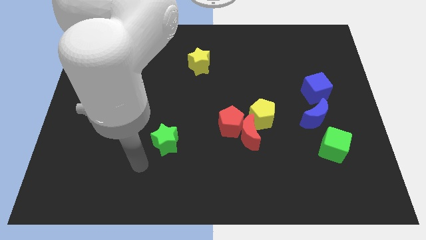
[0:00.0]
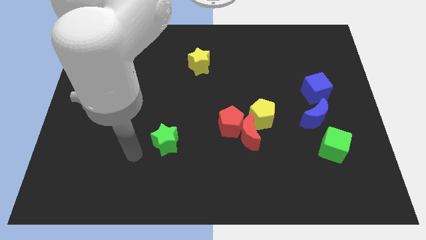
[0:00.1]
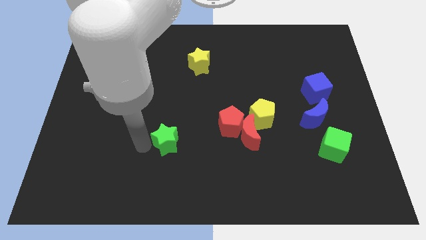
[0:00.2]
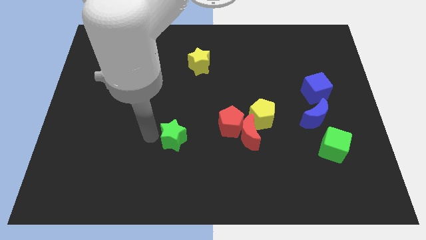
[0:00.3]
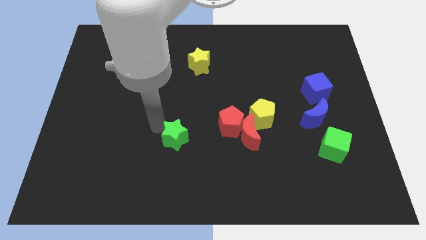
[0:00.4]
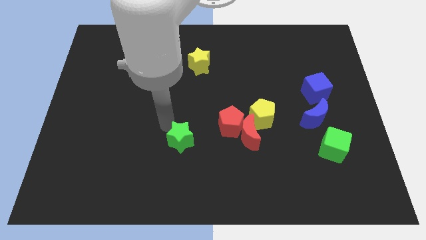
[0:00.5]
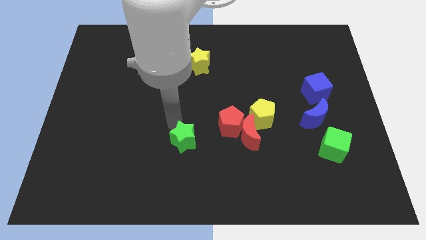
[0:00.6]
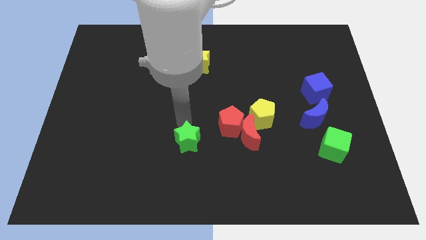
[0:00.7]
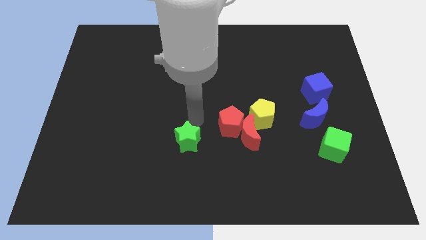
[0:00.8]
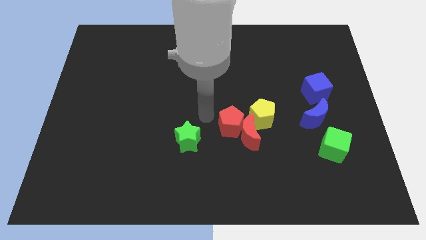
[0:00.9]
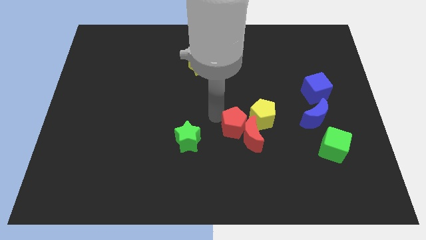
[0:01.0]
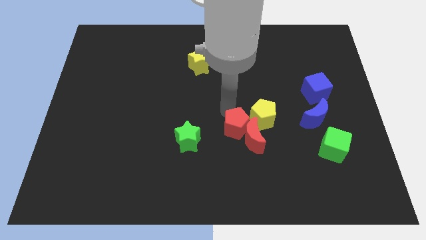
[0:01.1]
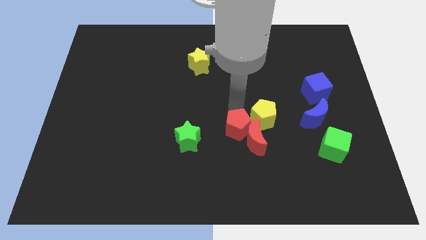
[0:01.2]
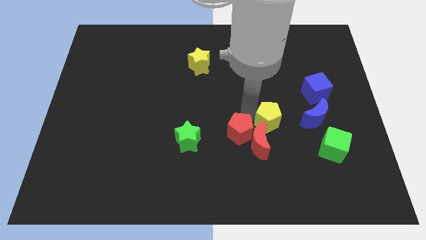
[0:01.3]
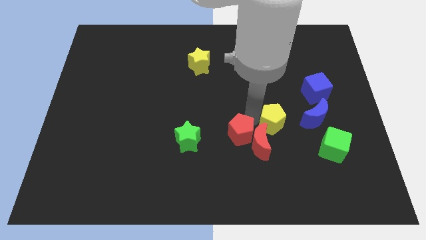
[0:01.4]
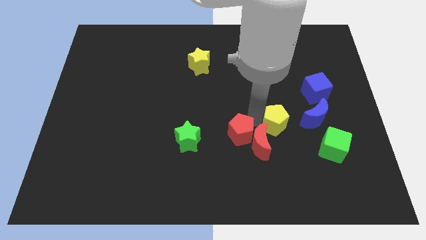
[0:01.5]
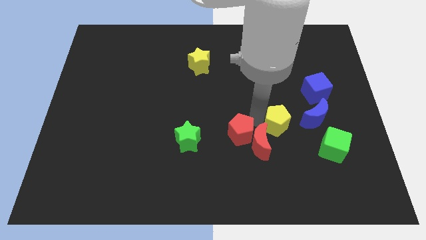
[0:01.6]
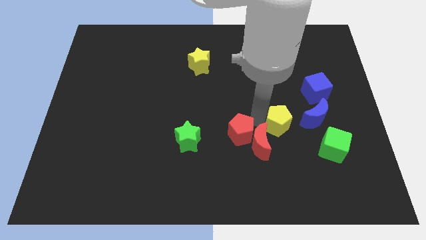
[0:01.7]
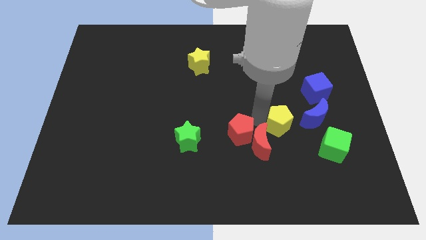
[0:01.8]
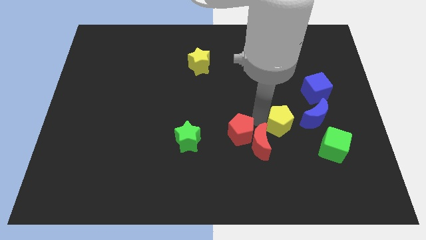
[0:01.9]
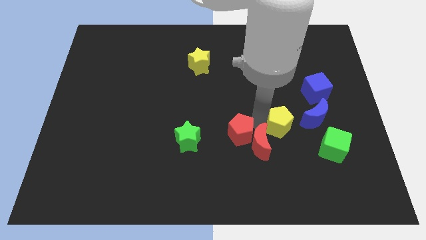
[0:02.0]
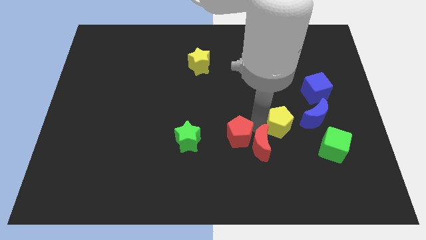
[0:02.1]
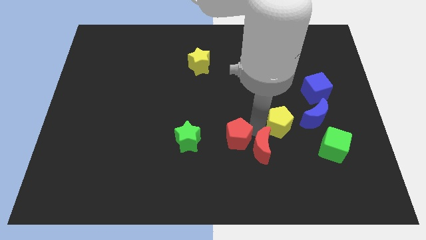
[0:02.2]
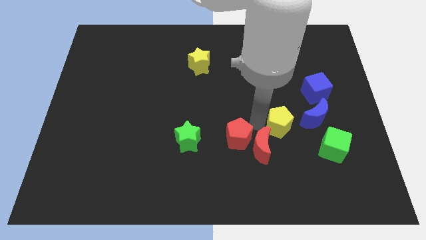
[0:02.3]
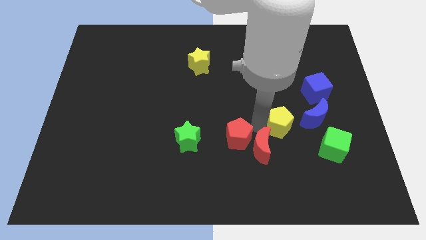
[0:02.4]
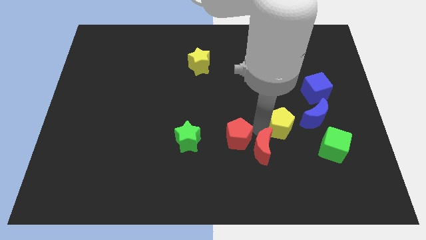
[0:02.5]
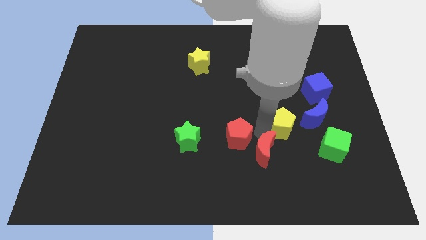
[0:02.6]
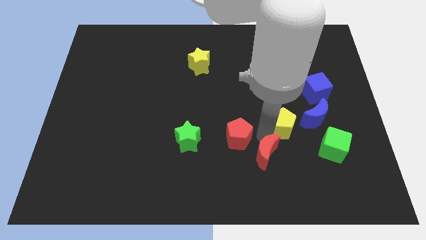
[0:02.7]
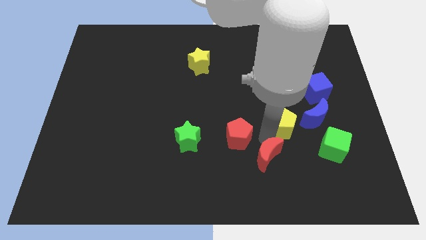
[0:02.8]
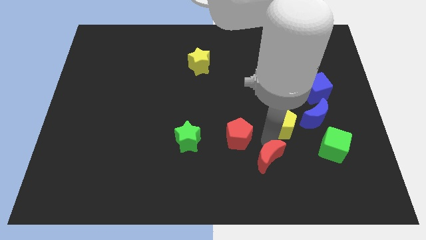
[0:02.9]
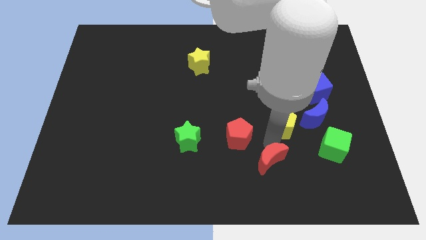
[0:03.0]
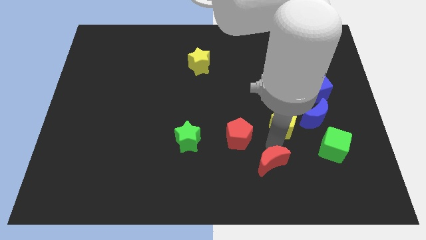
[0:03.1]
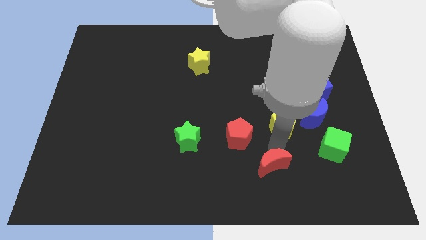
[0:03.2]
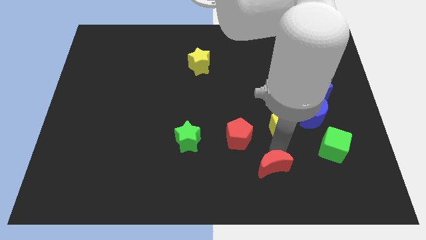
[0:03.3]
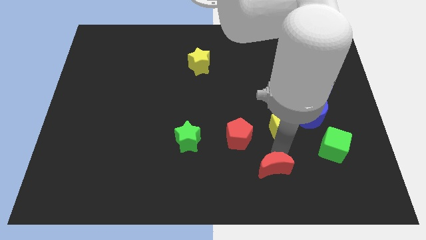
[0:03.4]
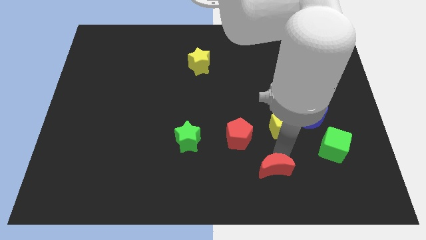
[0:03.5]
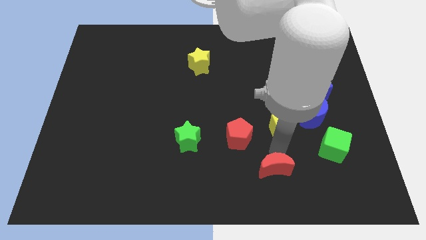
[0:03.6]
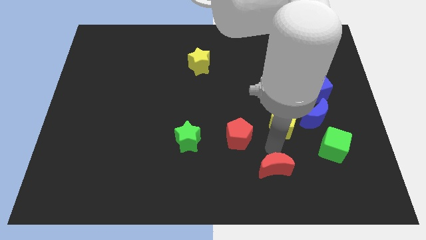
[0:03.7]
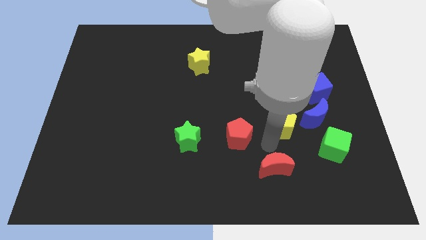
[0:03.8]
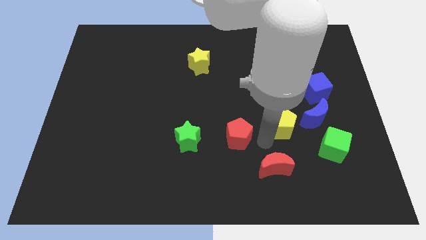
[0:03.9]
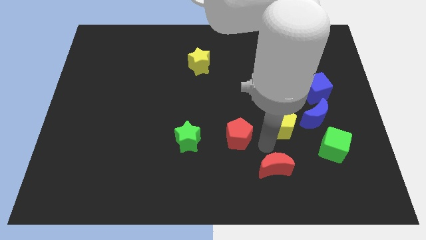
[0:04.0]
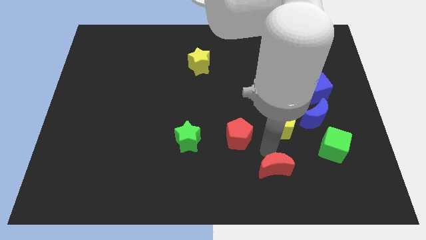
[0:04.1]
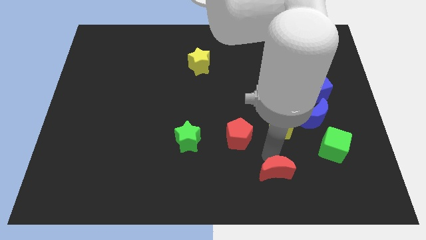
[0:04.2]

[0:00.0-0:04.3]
separate the red moon from the red pentagon and yellow pentagon

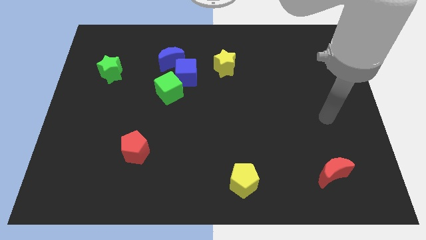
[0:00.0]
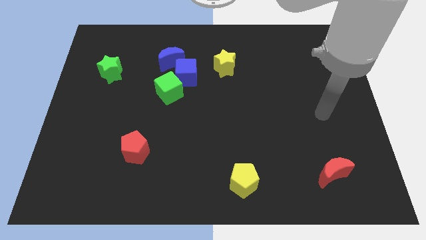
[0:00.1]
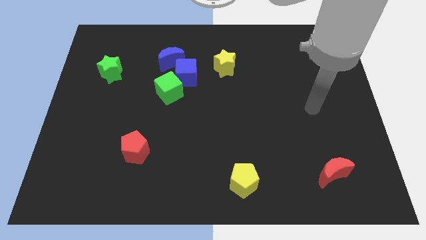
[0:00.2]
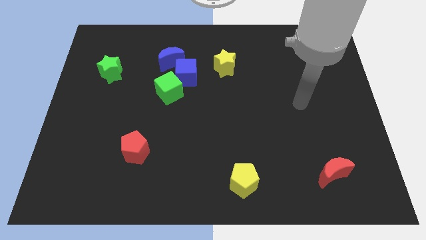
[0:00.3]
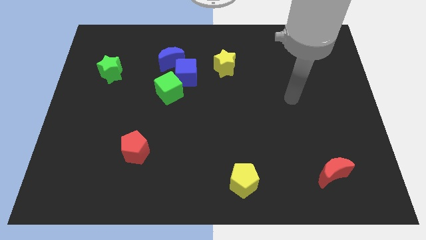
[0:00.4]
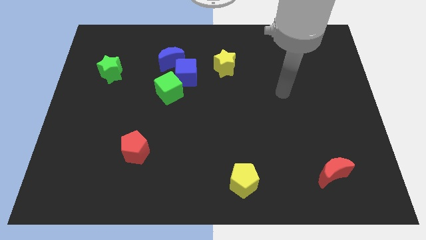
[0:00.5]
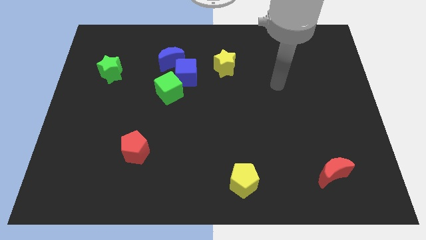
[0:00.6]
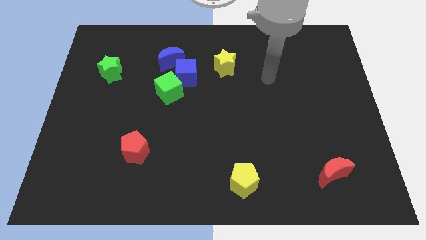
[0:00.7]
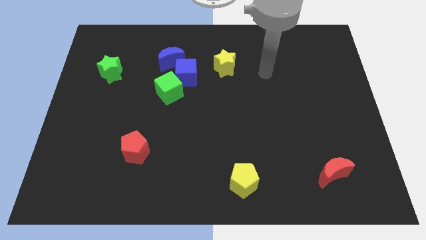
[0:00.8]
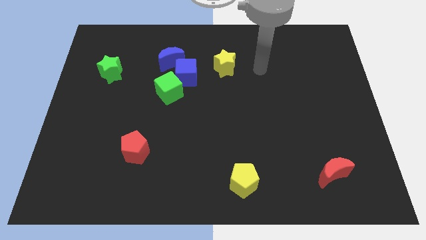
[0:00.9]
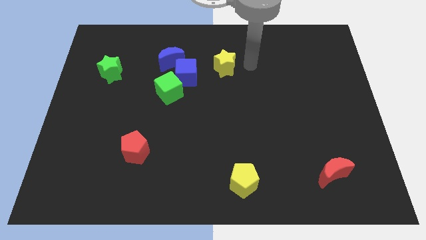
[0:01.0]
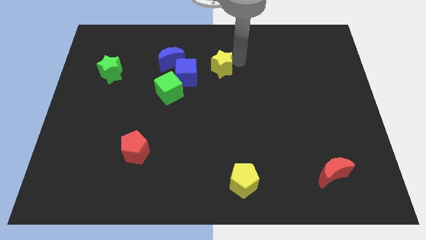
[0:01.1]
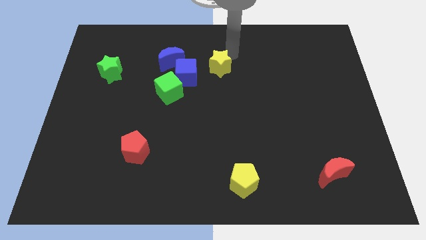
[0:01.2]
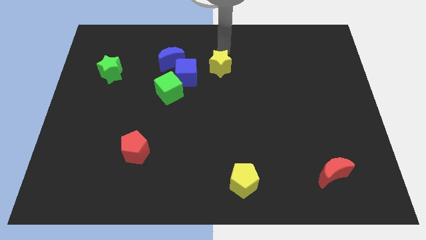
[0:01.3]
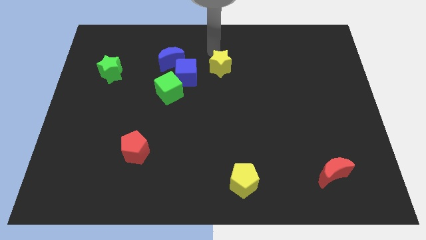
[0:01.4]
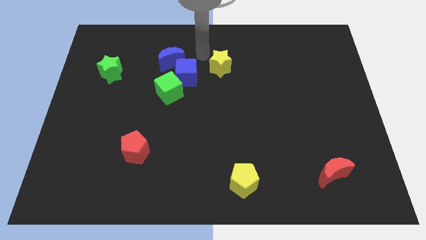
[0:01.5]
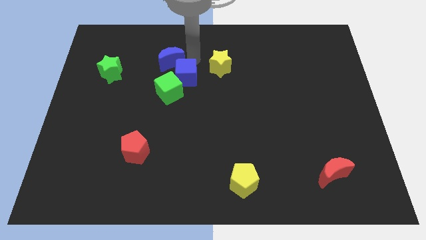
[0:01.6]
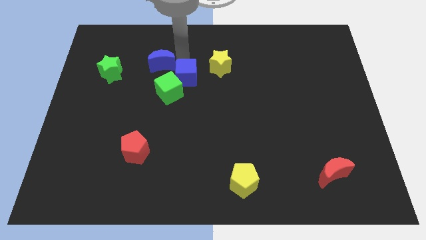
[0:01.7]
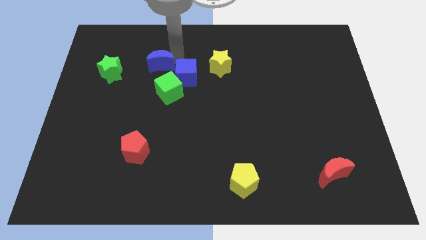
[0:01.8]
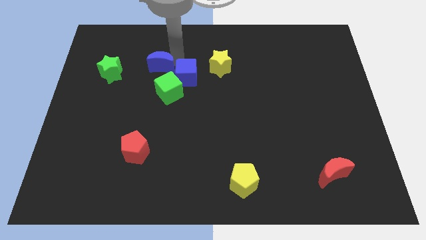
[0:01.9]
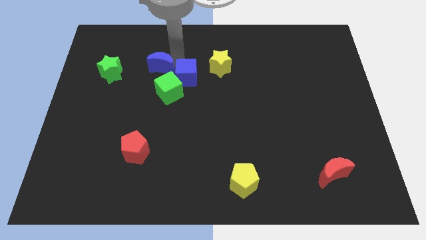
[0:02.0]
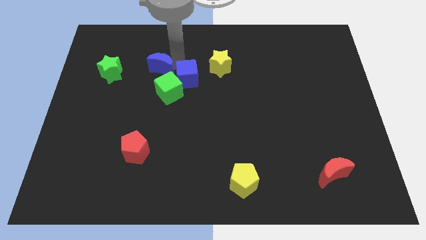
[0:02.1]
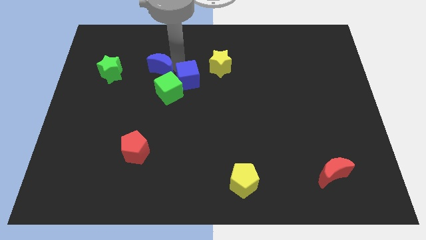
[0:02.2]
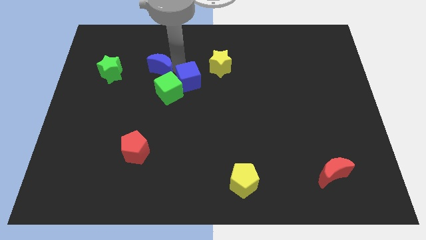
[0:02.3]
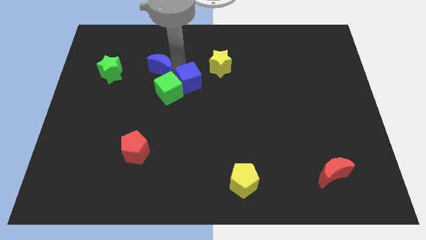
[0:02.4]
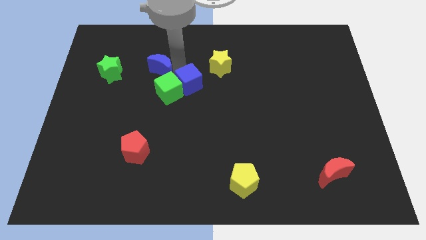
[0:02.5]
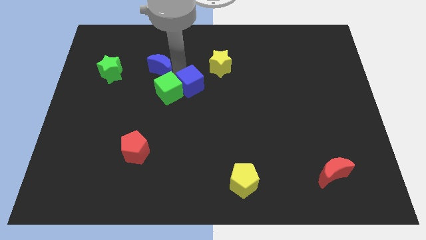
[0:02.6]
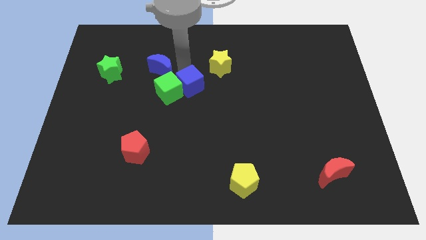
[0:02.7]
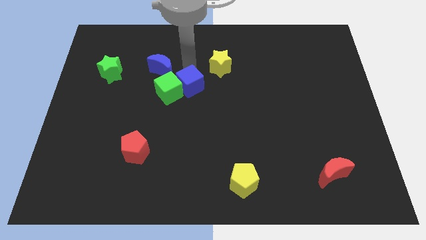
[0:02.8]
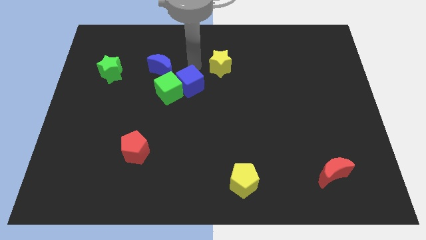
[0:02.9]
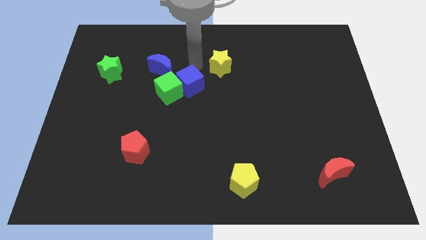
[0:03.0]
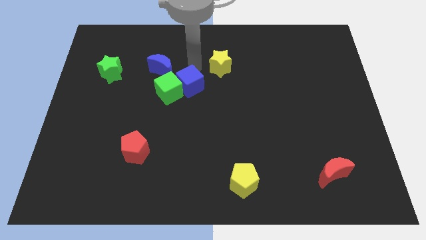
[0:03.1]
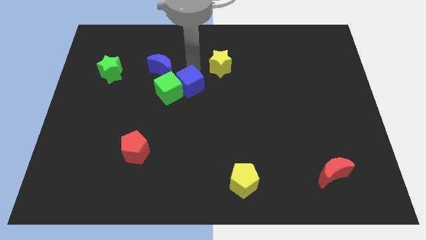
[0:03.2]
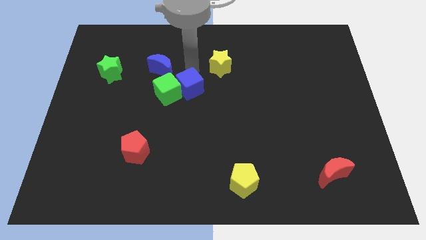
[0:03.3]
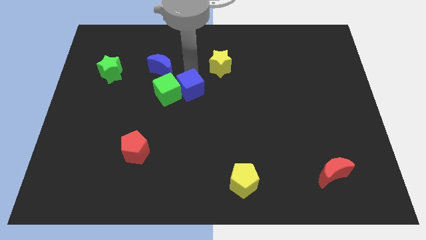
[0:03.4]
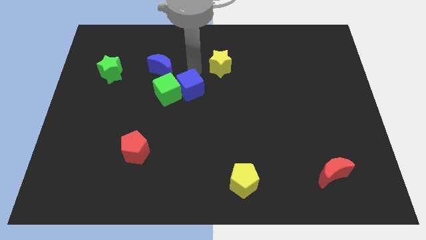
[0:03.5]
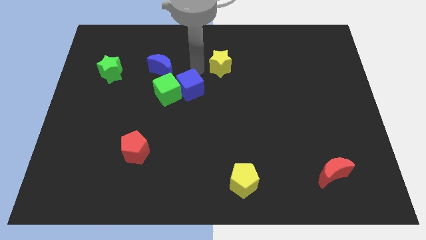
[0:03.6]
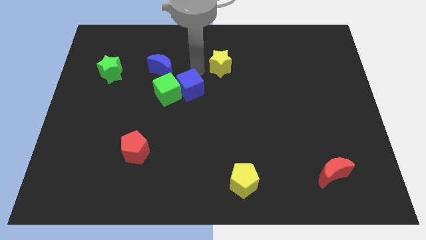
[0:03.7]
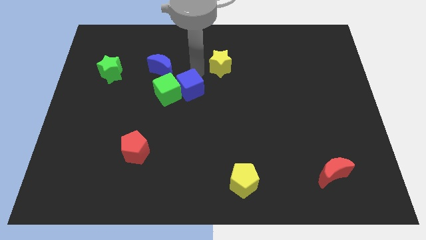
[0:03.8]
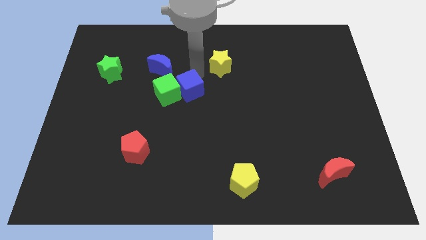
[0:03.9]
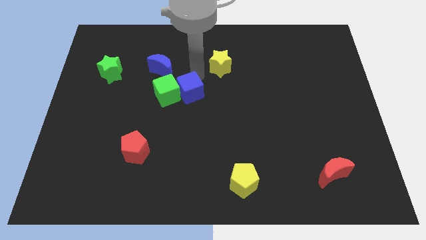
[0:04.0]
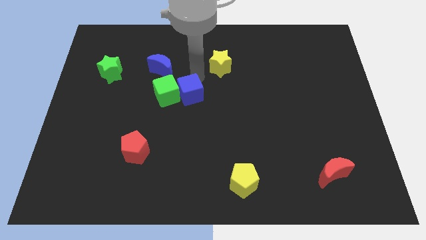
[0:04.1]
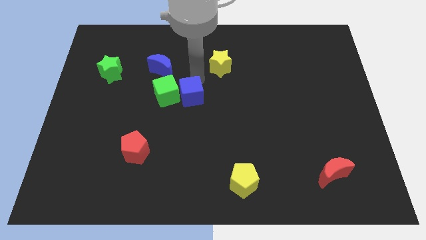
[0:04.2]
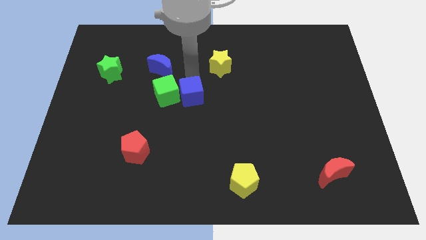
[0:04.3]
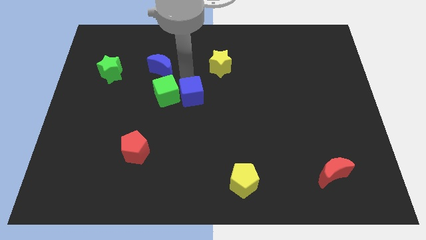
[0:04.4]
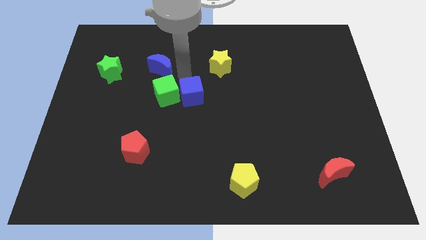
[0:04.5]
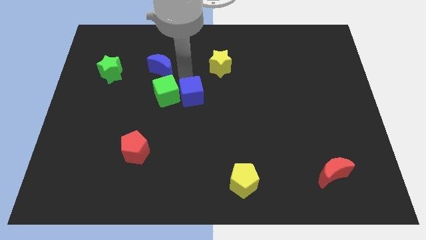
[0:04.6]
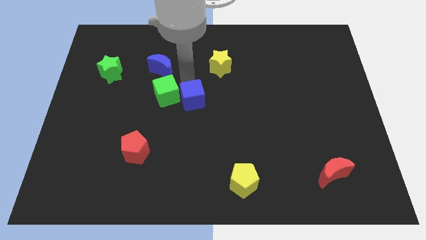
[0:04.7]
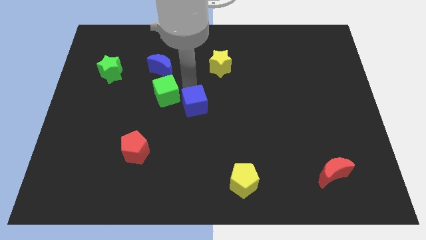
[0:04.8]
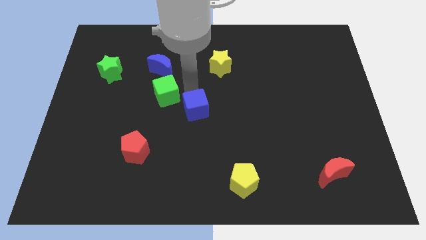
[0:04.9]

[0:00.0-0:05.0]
move the blue cube away from the clump
